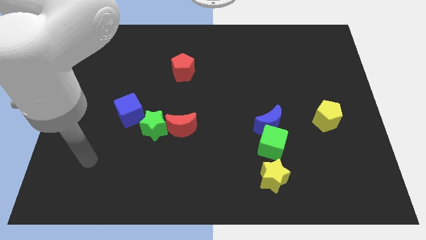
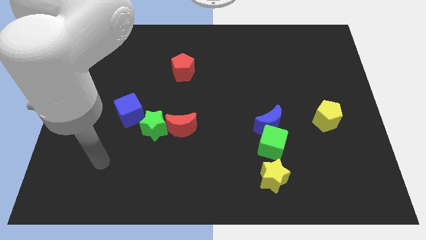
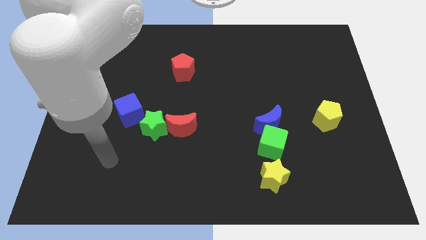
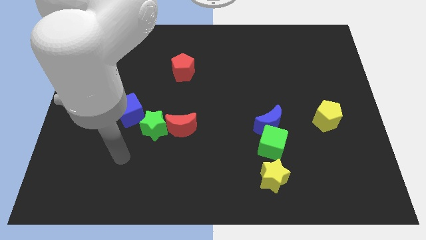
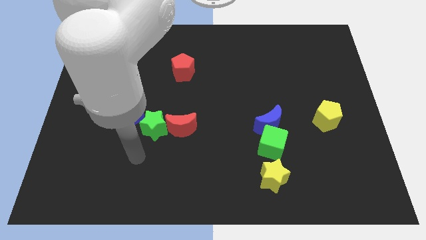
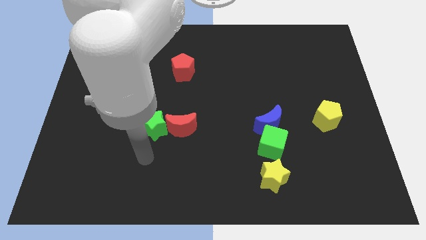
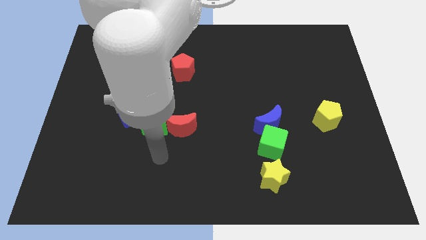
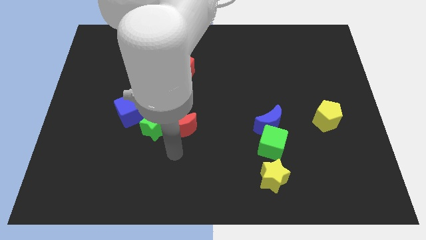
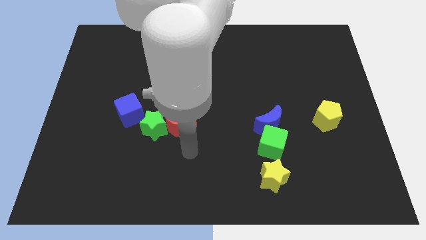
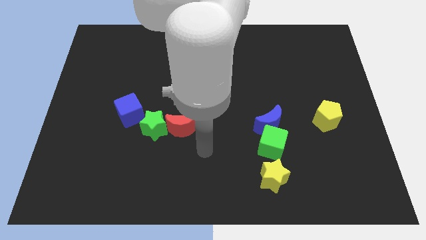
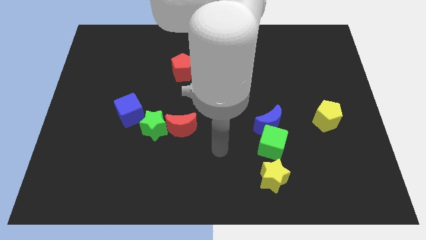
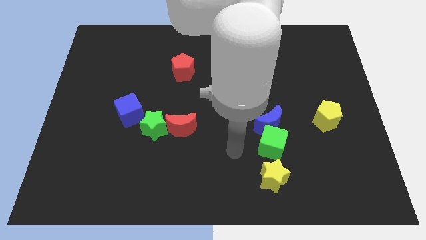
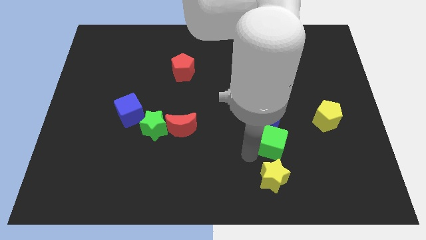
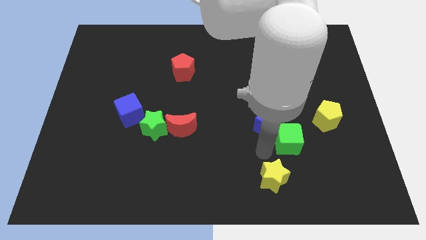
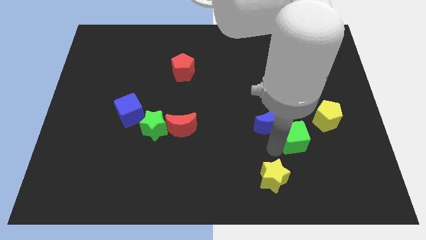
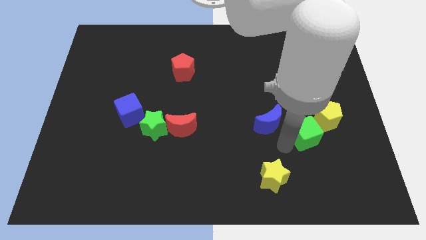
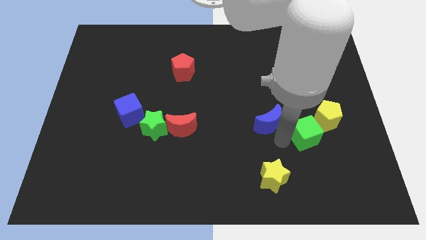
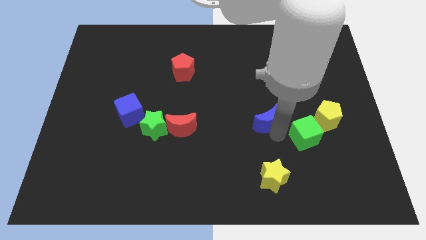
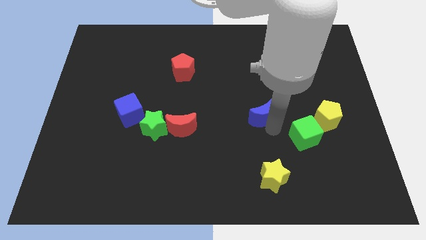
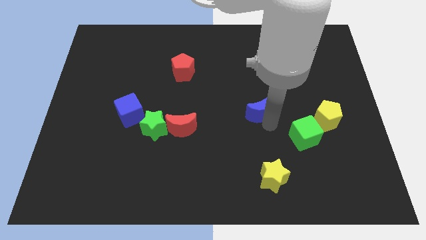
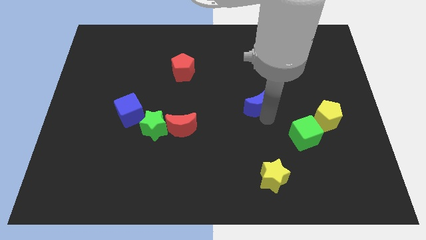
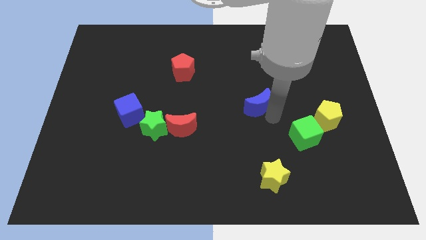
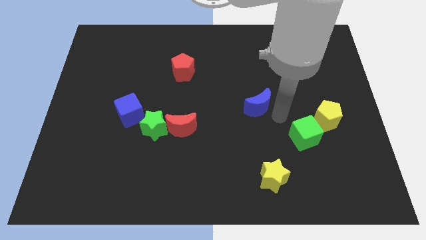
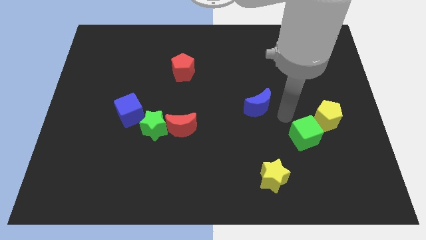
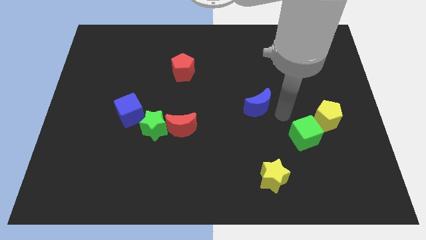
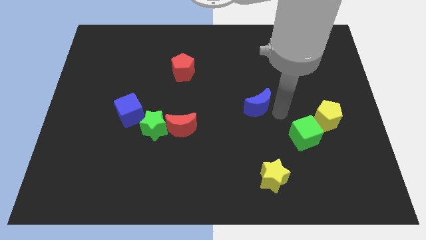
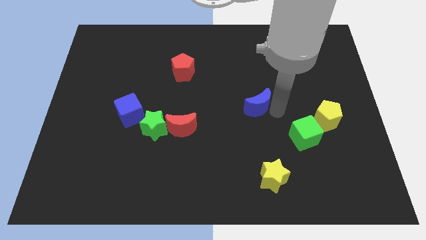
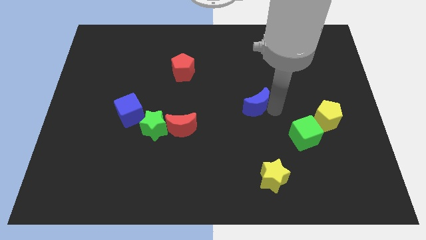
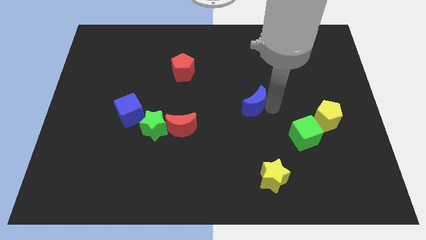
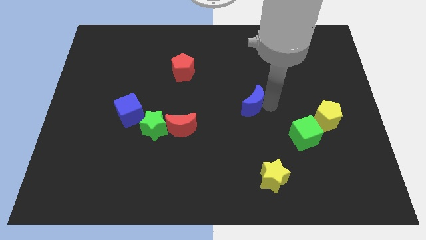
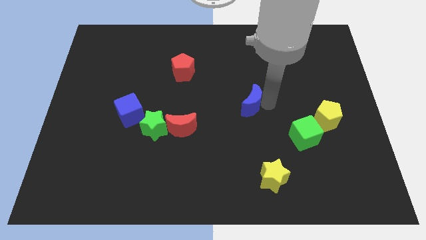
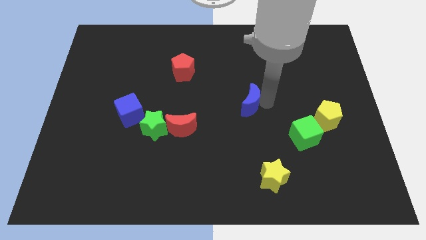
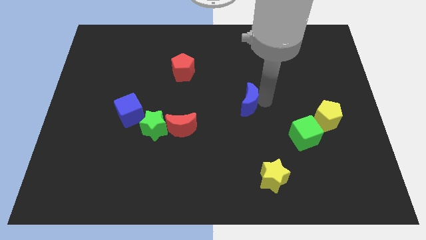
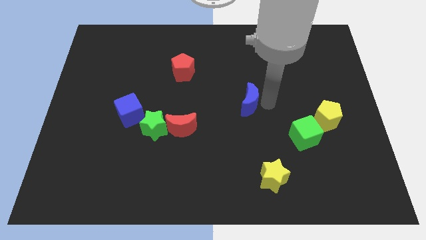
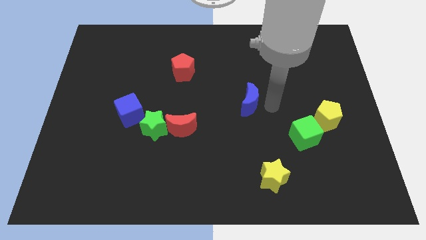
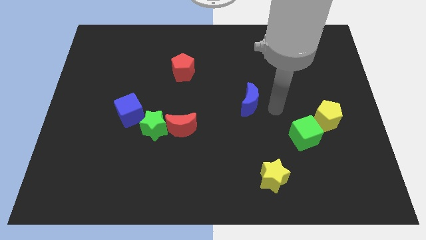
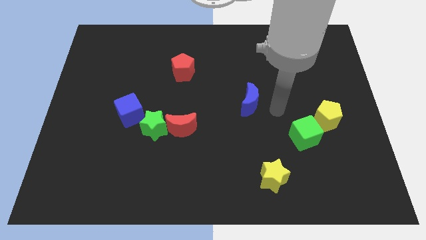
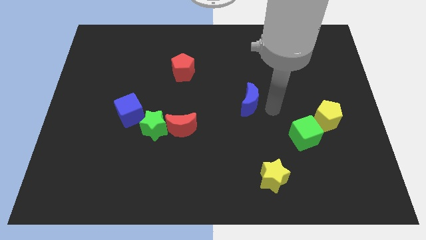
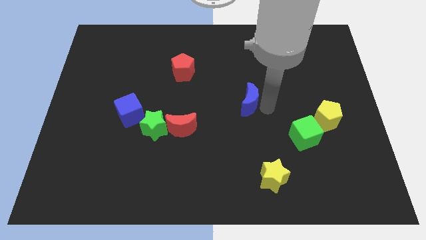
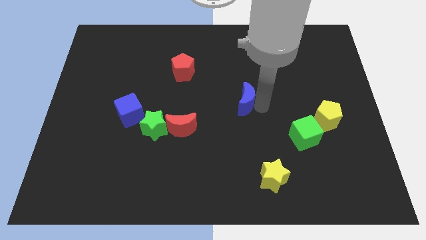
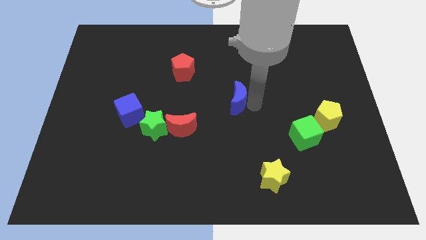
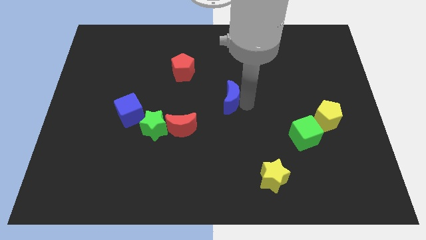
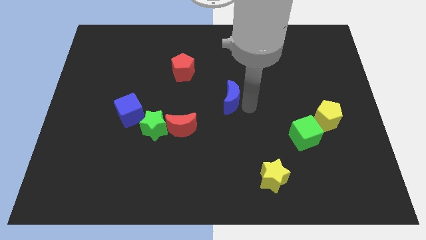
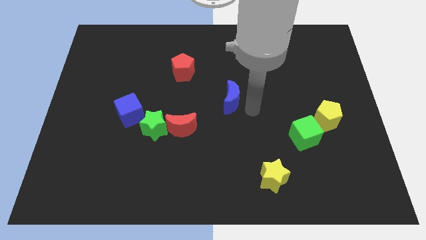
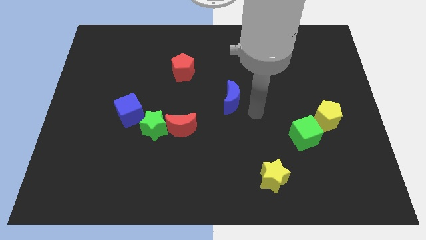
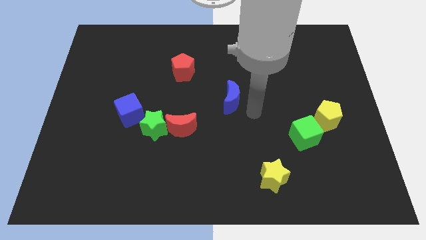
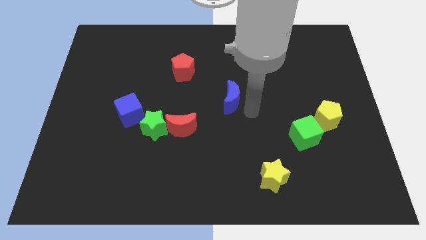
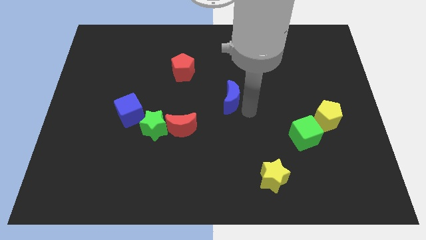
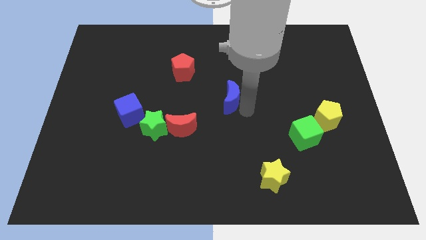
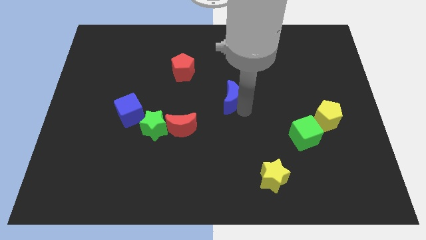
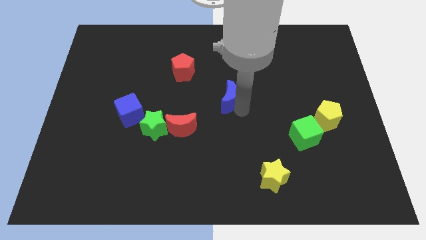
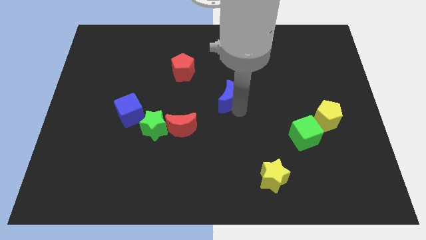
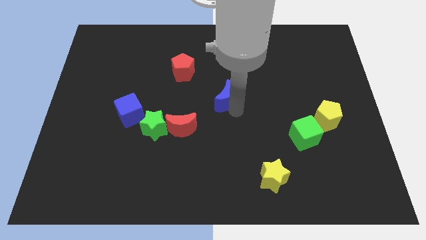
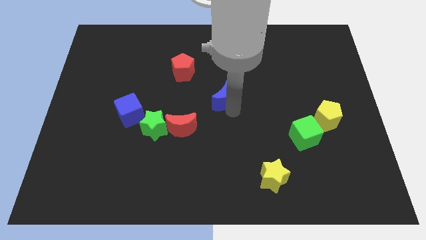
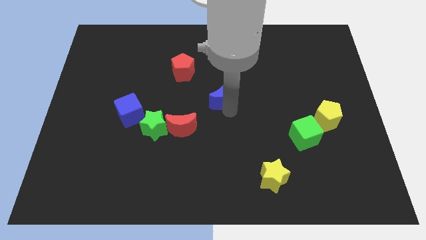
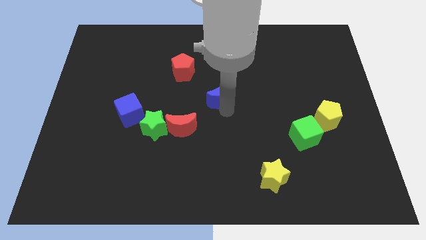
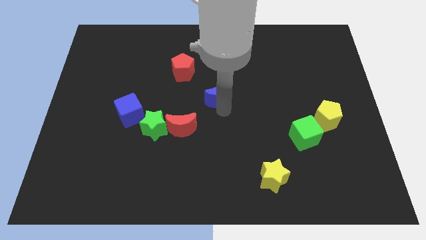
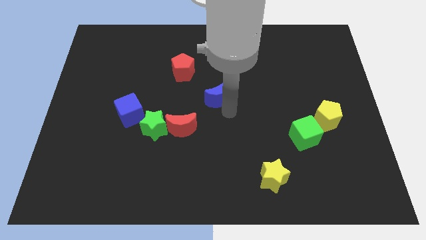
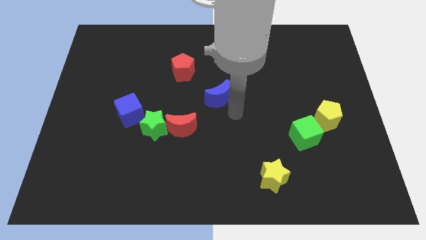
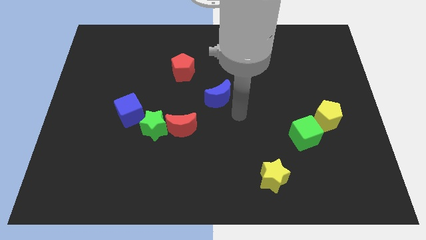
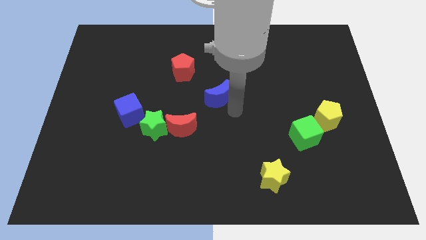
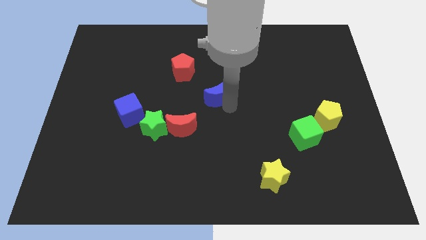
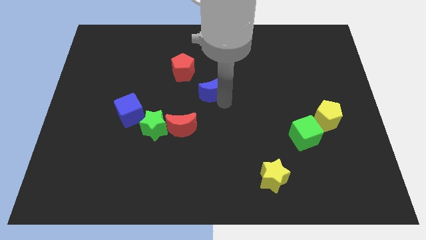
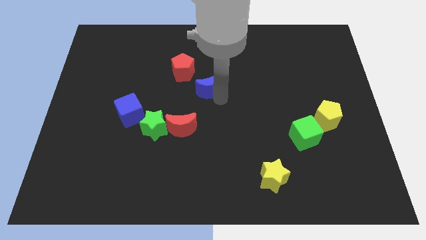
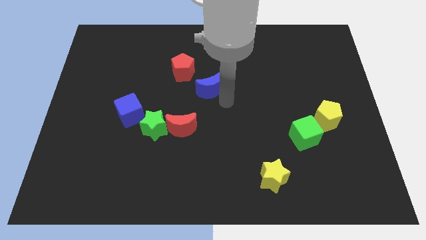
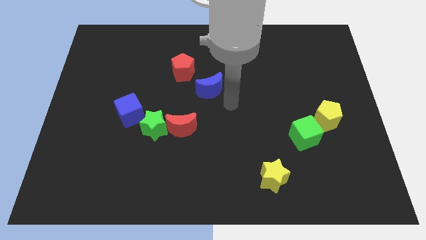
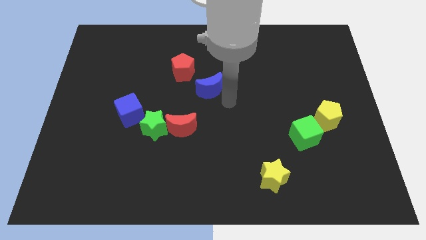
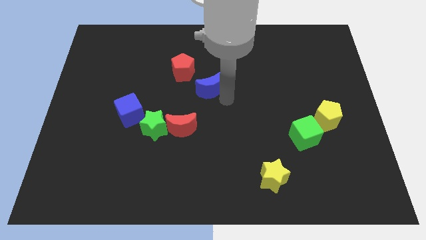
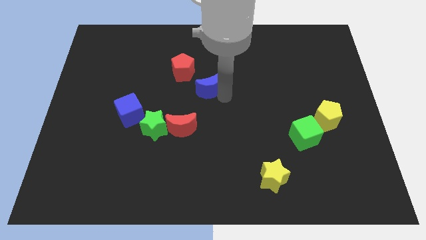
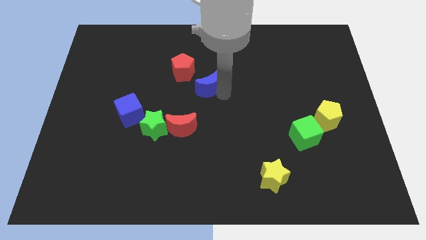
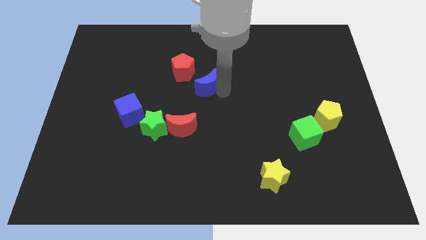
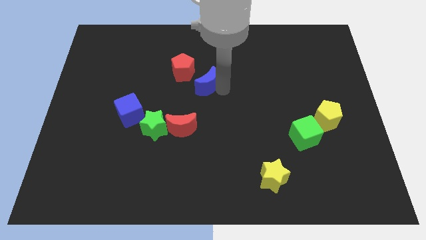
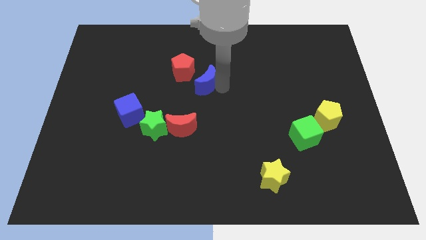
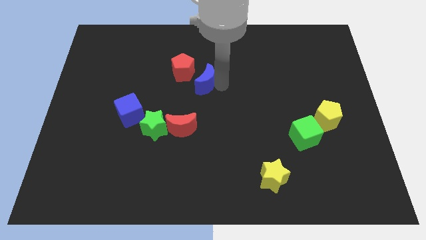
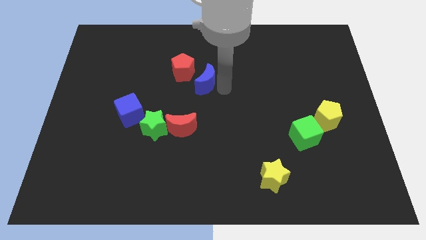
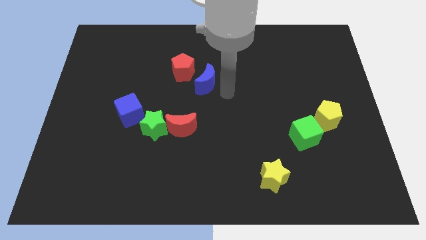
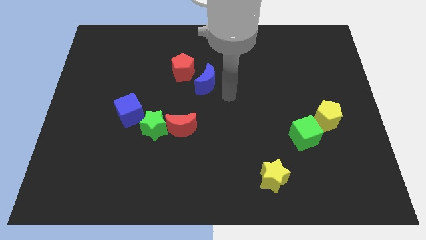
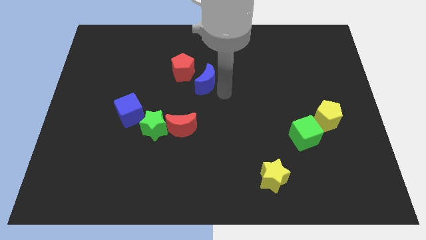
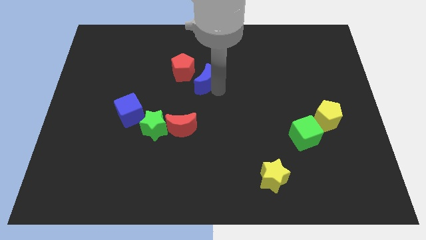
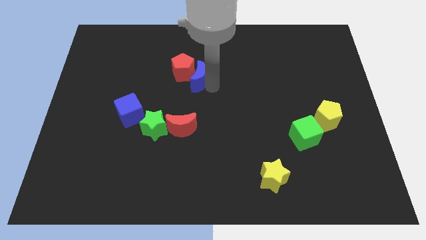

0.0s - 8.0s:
move the blue moon close to the red pentagon

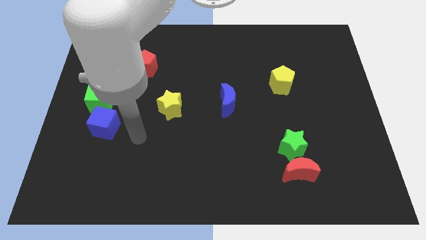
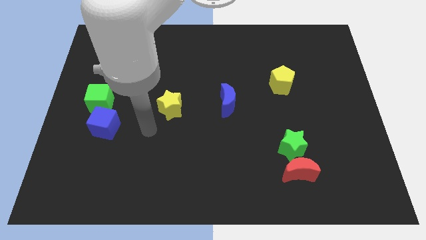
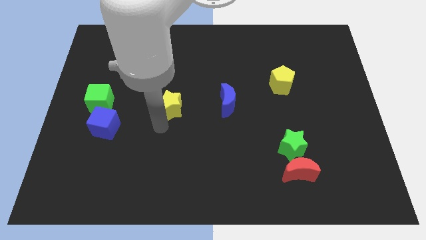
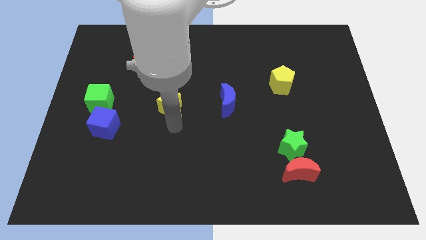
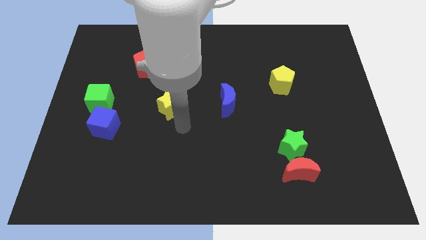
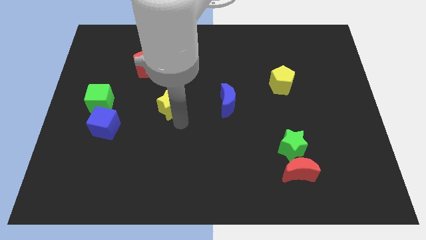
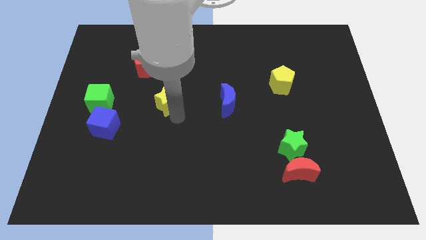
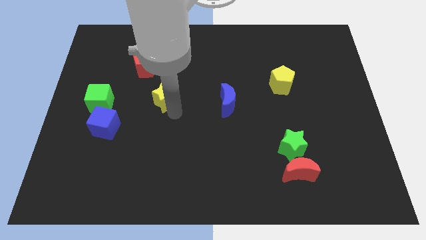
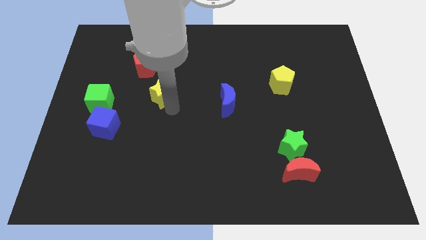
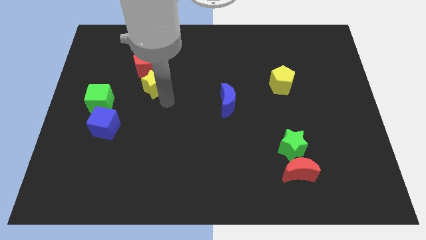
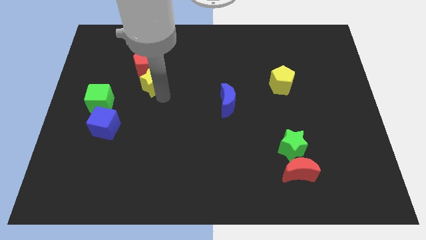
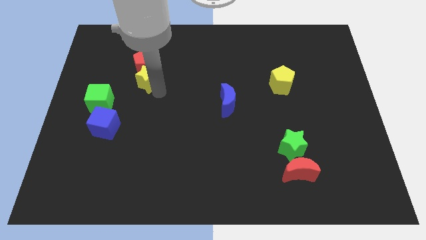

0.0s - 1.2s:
push the yellow star to the red pentagon
